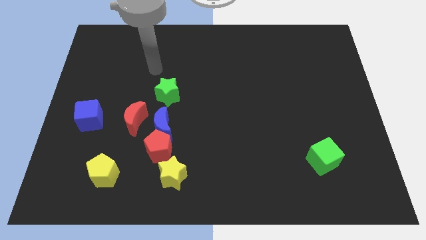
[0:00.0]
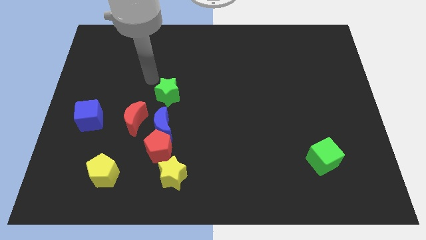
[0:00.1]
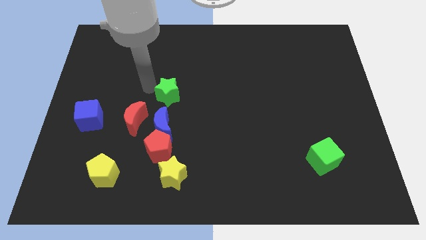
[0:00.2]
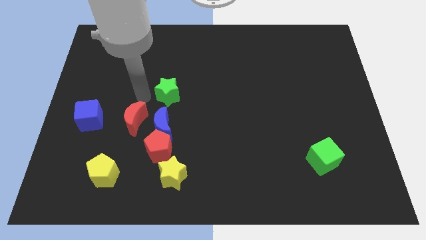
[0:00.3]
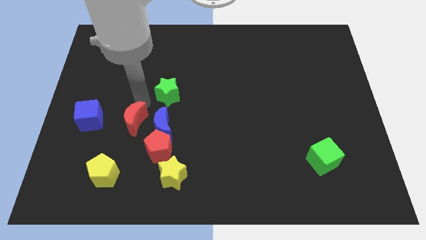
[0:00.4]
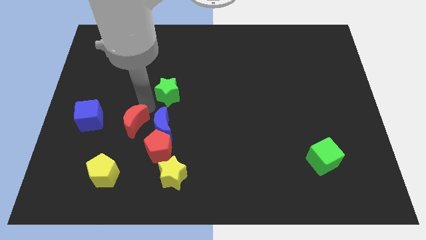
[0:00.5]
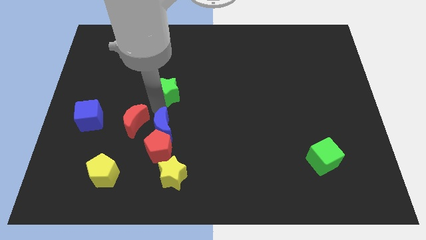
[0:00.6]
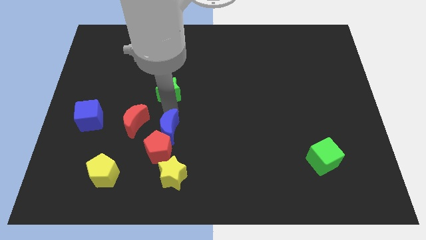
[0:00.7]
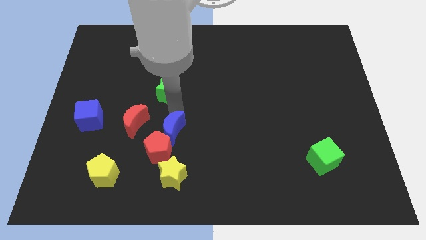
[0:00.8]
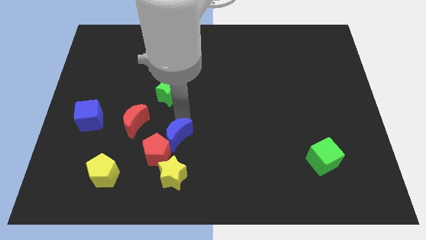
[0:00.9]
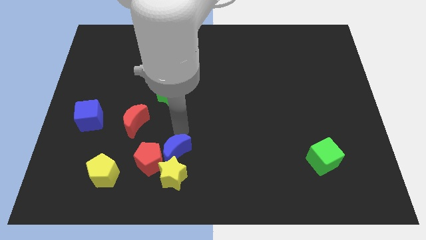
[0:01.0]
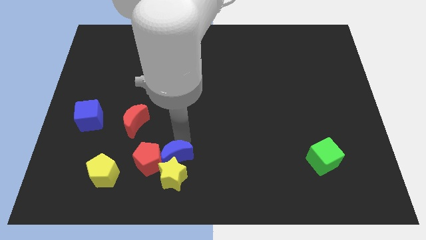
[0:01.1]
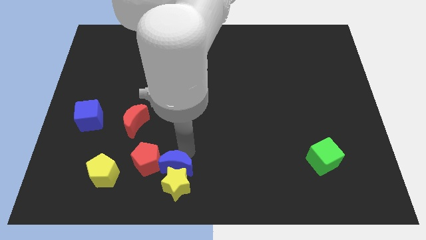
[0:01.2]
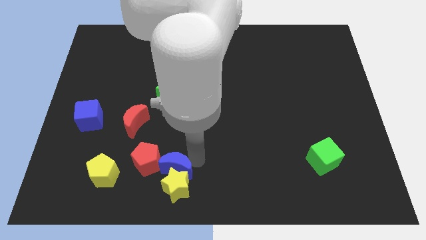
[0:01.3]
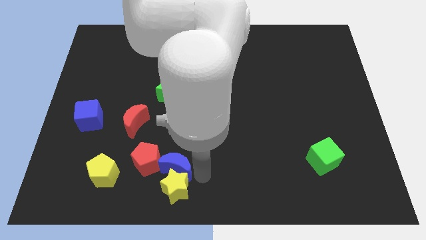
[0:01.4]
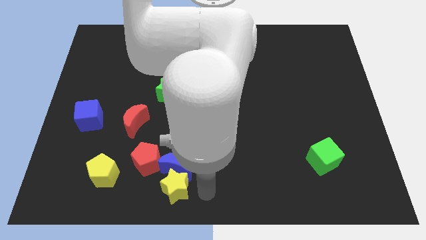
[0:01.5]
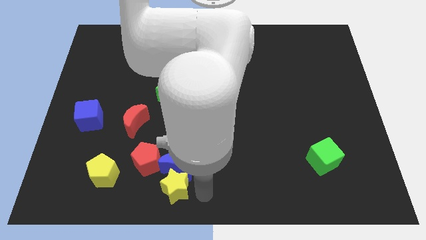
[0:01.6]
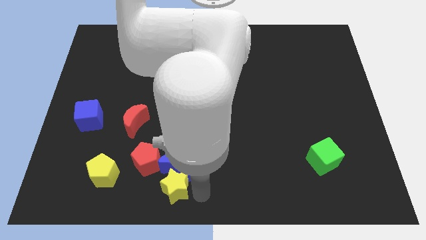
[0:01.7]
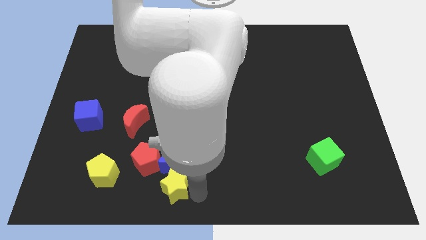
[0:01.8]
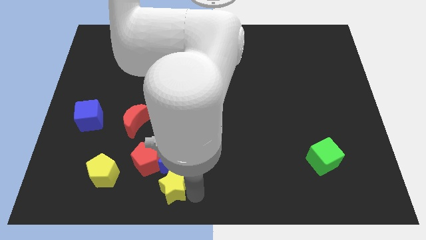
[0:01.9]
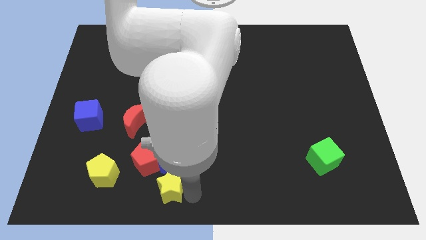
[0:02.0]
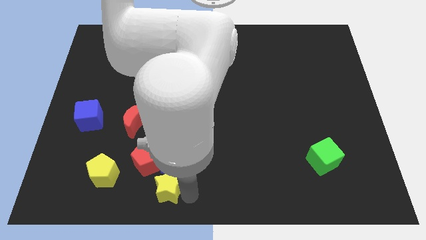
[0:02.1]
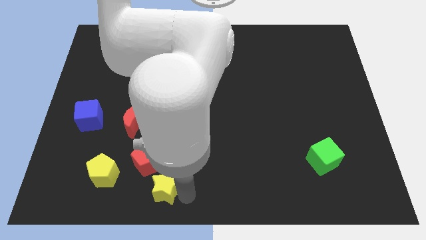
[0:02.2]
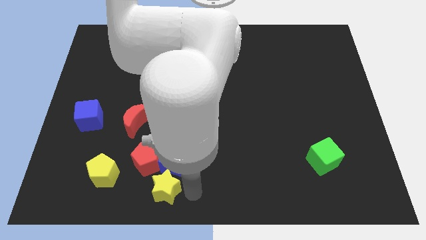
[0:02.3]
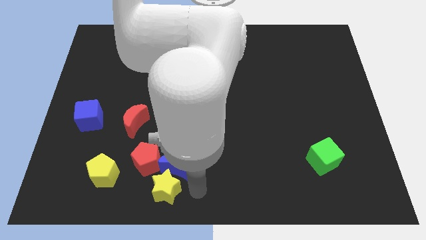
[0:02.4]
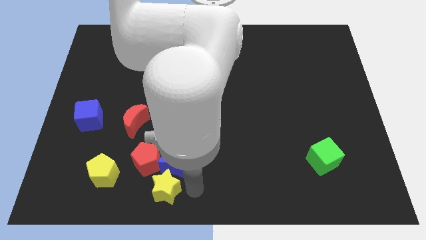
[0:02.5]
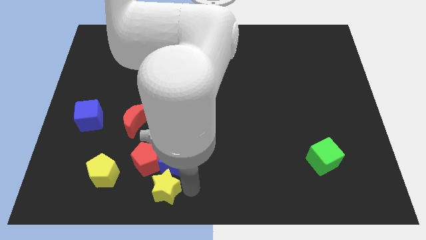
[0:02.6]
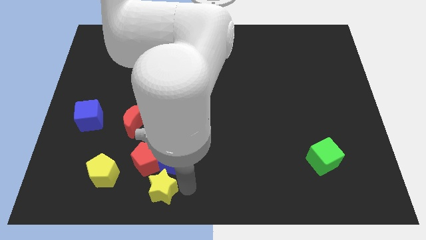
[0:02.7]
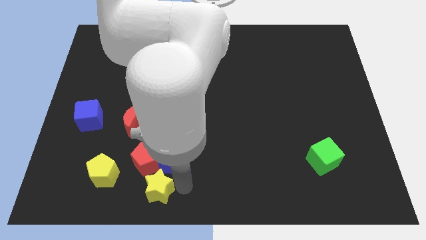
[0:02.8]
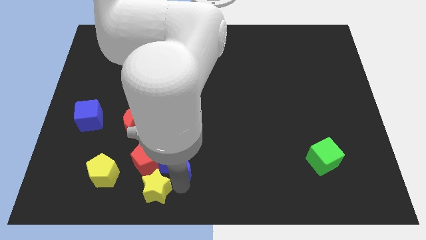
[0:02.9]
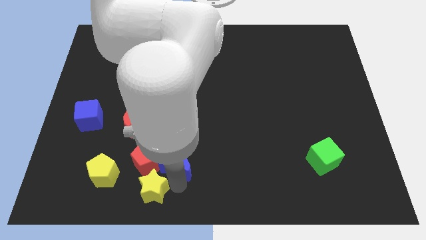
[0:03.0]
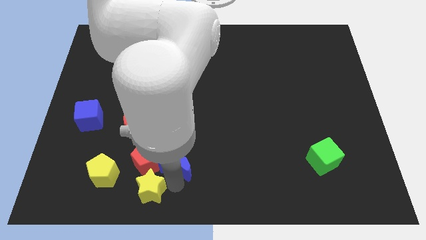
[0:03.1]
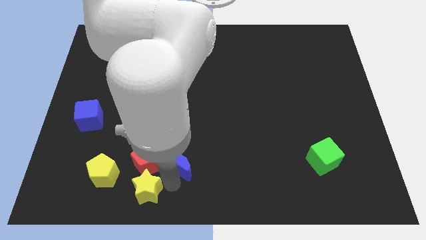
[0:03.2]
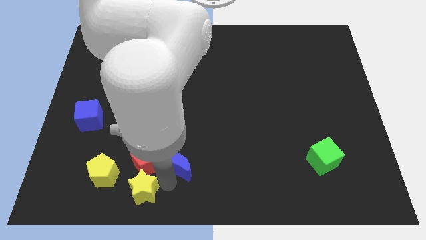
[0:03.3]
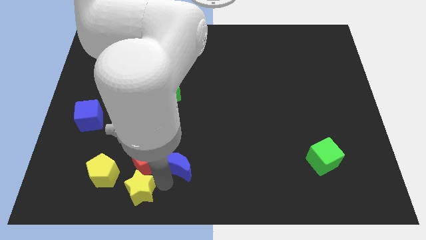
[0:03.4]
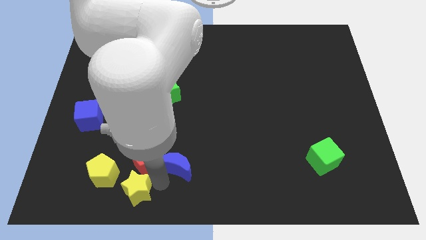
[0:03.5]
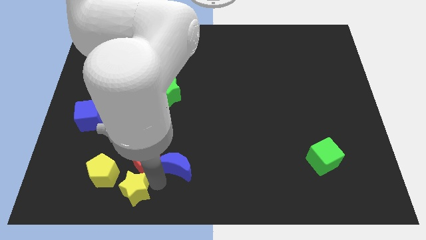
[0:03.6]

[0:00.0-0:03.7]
slightly slide the yellow star to the left

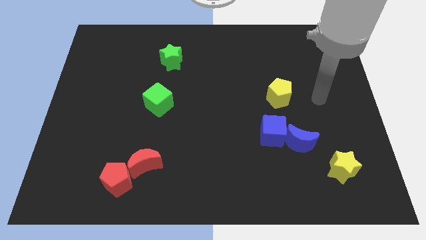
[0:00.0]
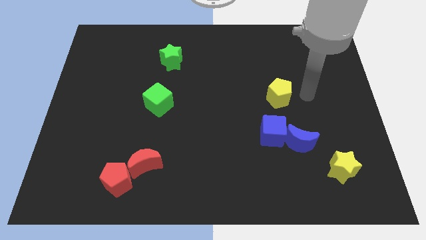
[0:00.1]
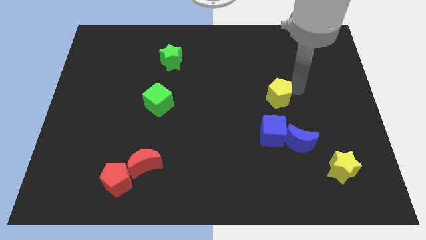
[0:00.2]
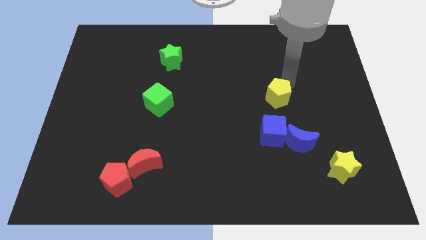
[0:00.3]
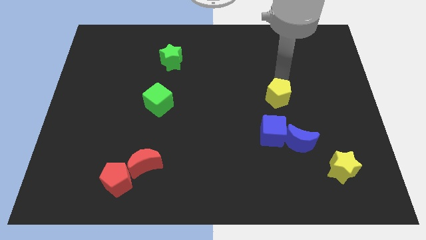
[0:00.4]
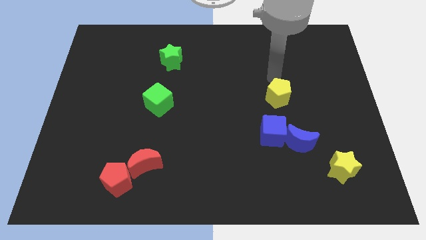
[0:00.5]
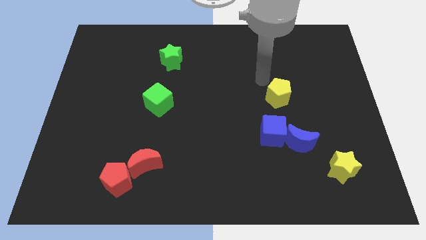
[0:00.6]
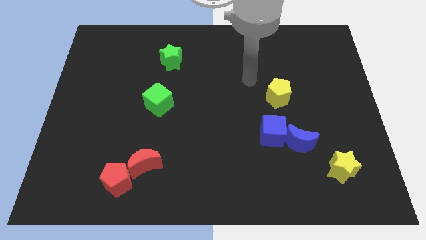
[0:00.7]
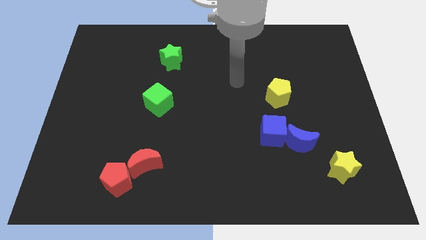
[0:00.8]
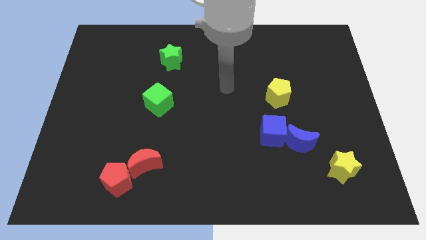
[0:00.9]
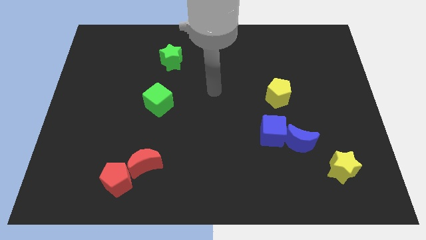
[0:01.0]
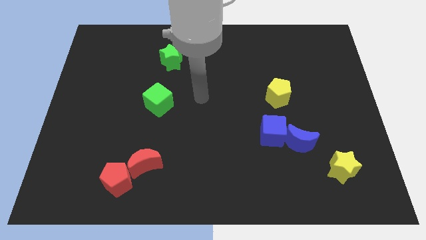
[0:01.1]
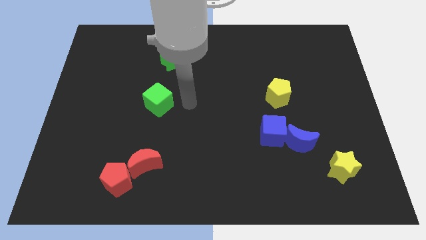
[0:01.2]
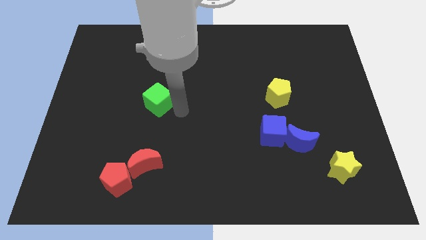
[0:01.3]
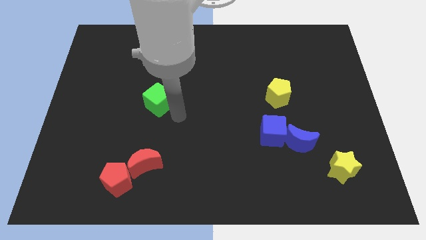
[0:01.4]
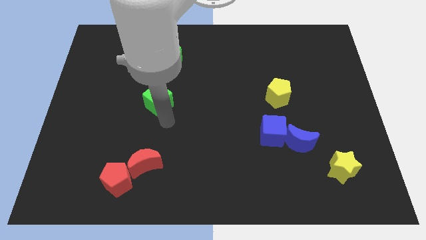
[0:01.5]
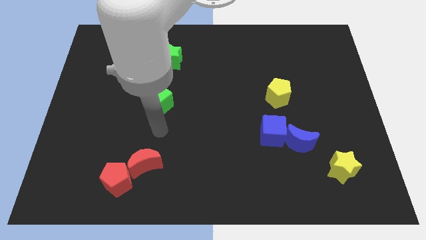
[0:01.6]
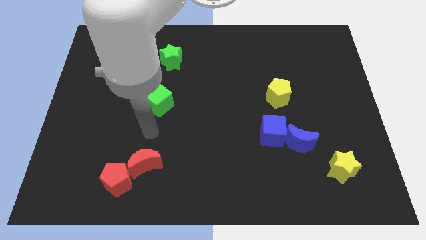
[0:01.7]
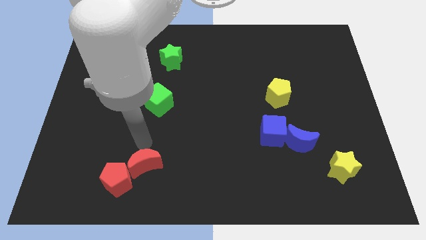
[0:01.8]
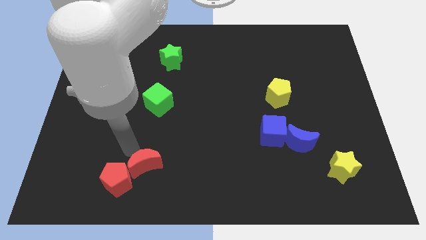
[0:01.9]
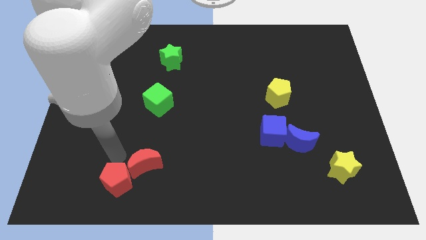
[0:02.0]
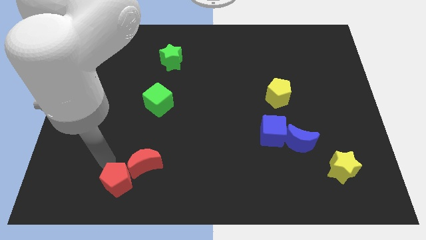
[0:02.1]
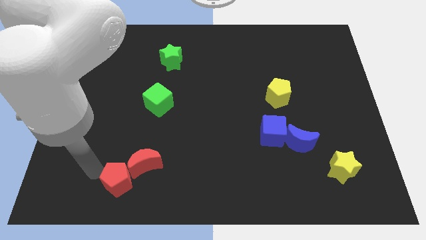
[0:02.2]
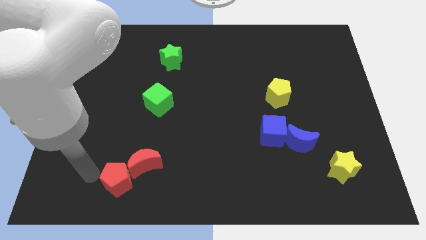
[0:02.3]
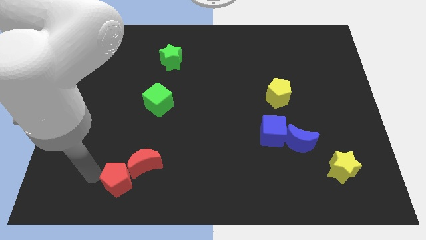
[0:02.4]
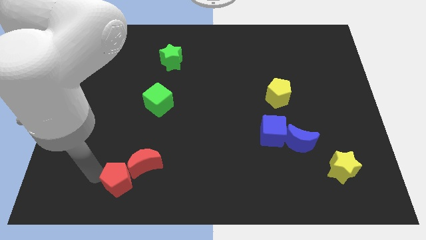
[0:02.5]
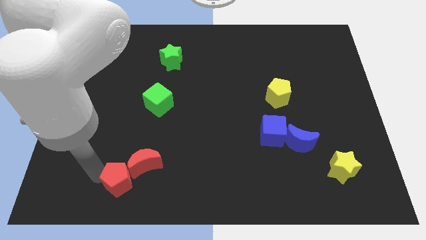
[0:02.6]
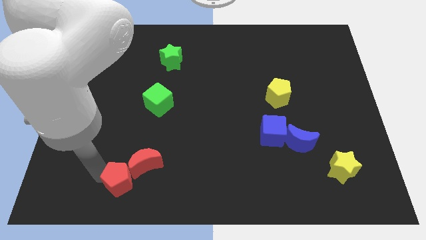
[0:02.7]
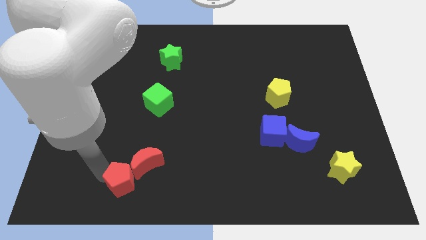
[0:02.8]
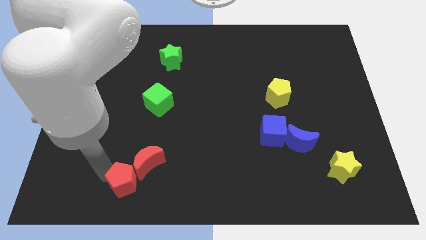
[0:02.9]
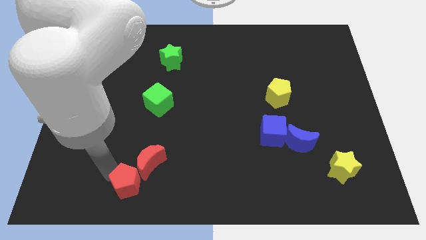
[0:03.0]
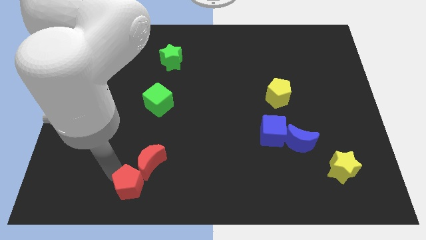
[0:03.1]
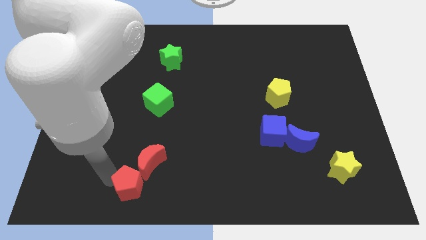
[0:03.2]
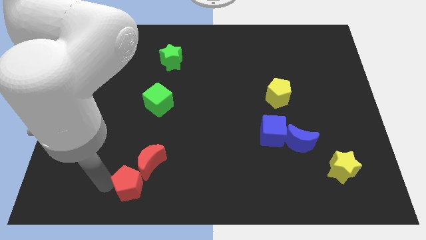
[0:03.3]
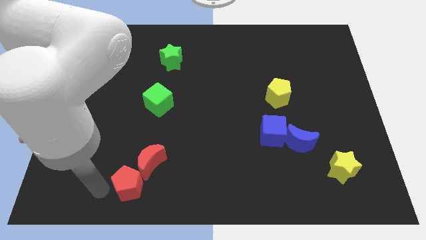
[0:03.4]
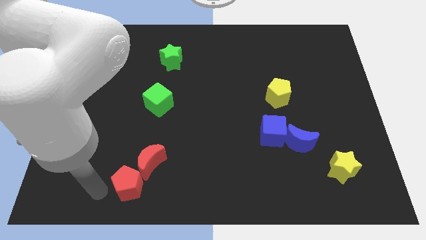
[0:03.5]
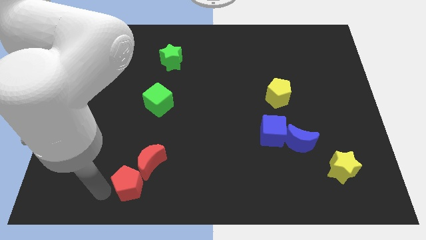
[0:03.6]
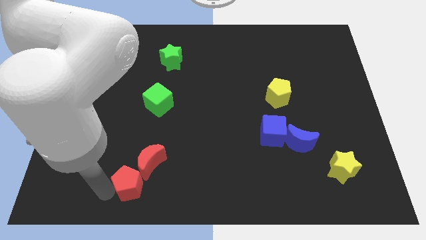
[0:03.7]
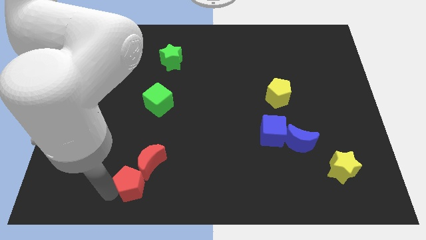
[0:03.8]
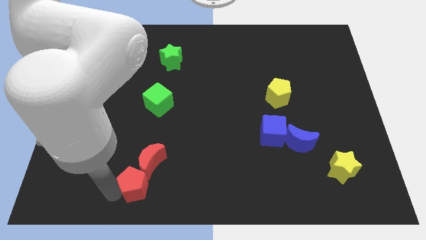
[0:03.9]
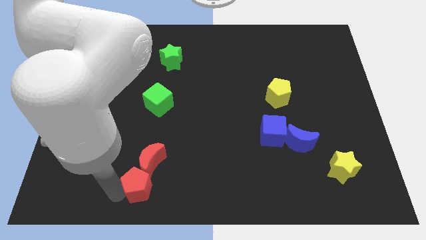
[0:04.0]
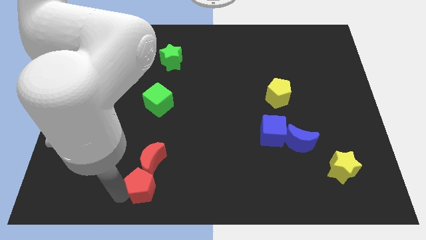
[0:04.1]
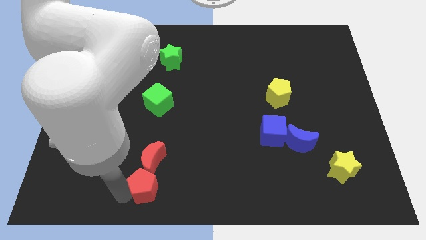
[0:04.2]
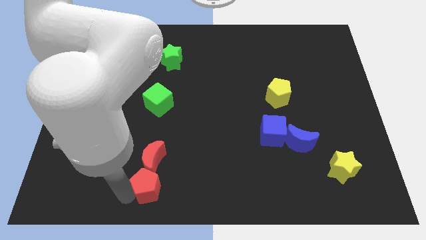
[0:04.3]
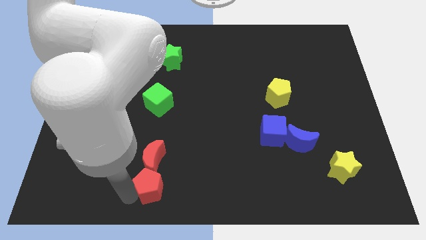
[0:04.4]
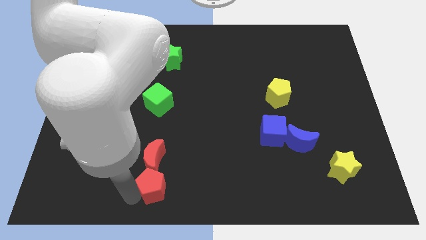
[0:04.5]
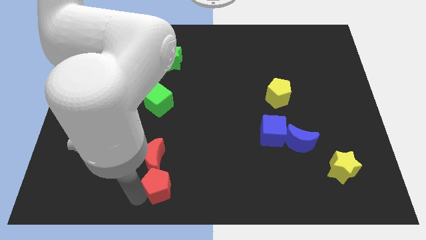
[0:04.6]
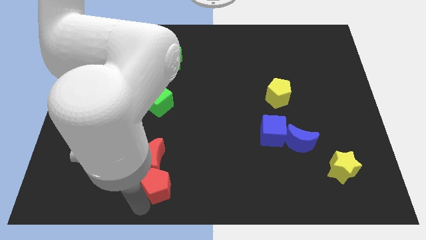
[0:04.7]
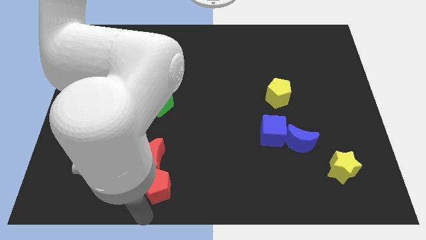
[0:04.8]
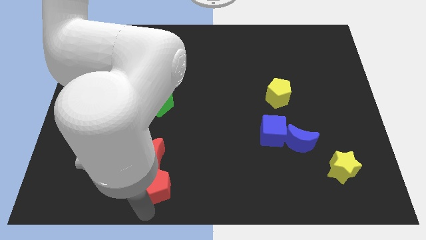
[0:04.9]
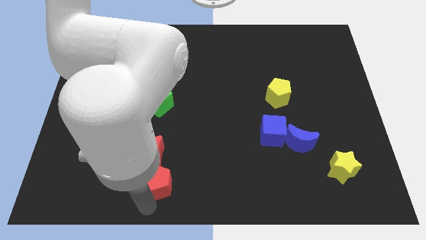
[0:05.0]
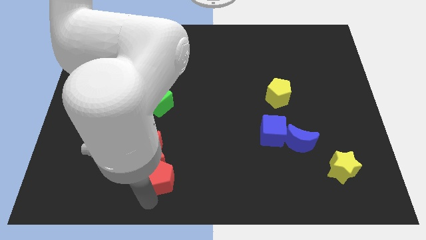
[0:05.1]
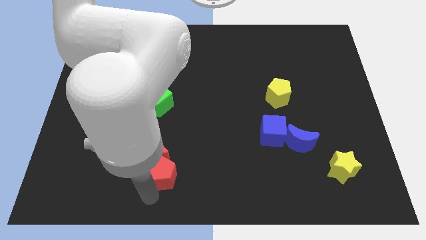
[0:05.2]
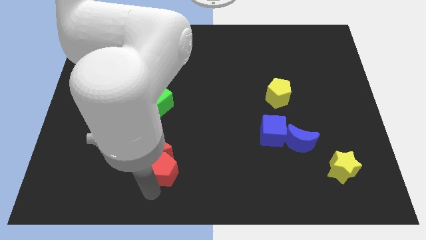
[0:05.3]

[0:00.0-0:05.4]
slide the red pentagon a little bit upwards and to the right
